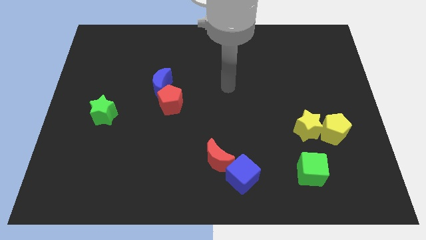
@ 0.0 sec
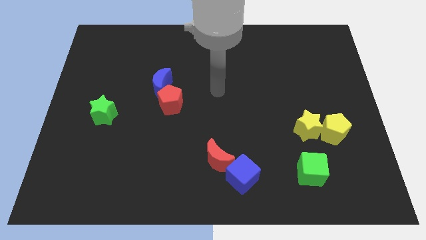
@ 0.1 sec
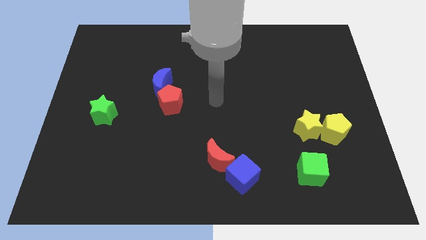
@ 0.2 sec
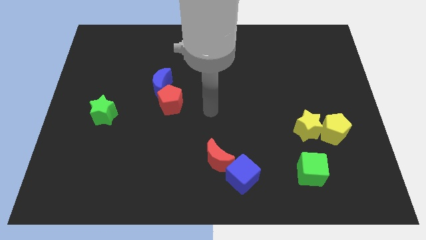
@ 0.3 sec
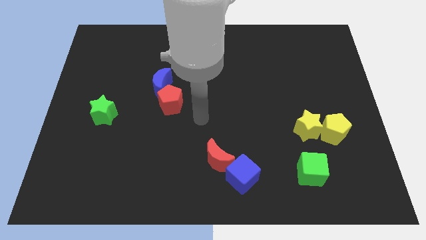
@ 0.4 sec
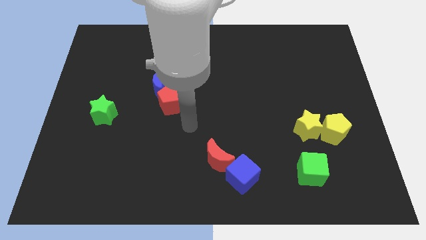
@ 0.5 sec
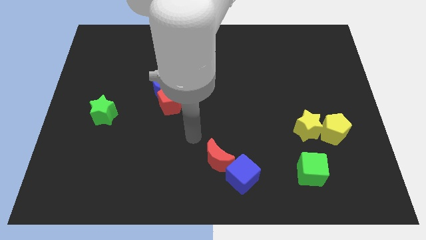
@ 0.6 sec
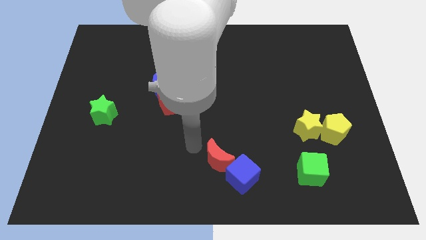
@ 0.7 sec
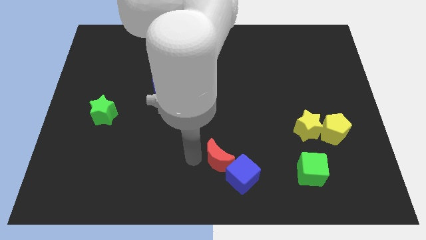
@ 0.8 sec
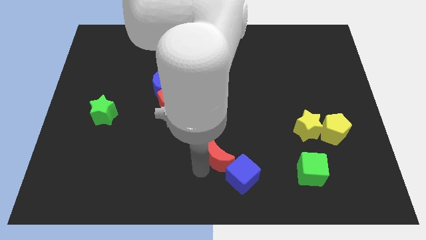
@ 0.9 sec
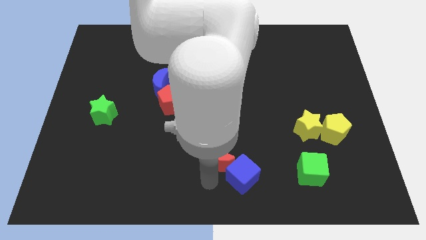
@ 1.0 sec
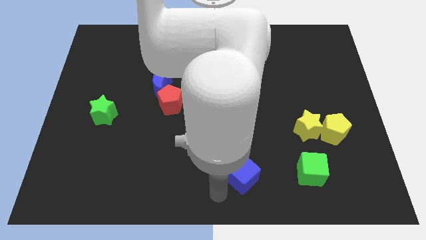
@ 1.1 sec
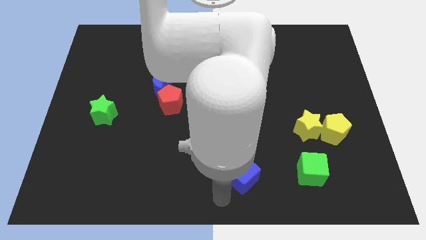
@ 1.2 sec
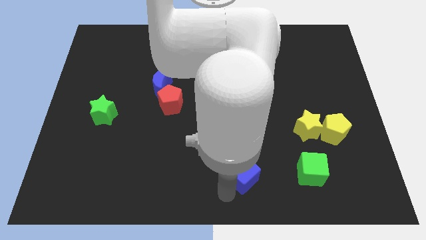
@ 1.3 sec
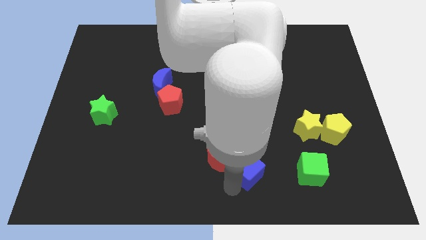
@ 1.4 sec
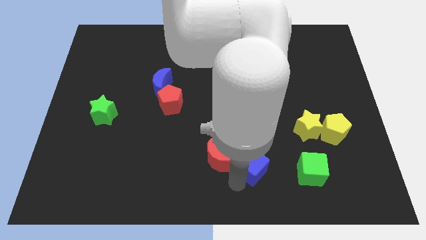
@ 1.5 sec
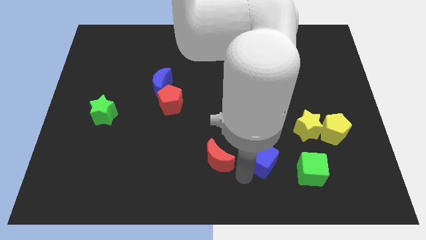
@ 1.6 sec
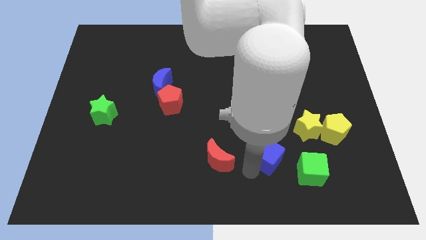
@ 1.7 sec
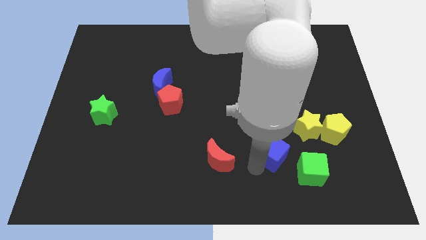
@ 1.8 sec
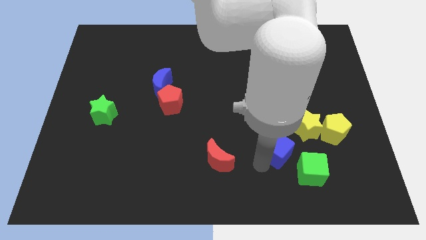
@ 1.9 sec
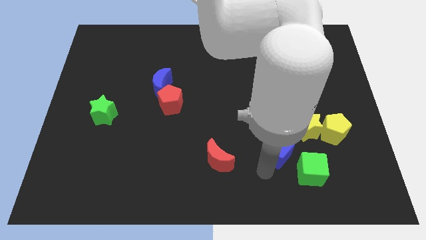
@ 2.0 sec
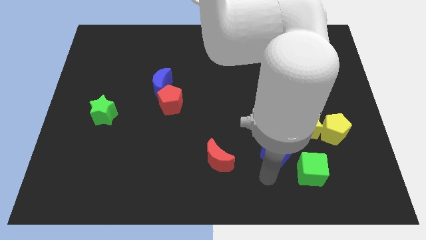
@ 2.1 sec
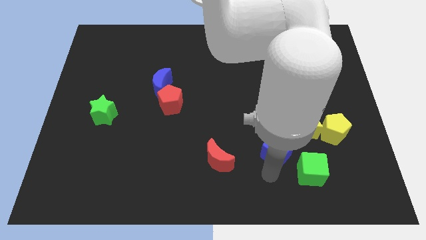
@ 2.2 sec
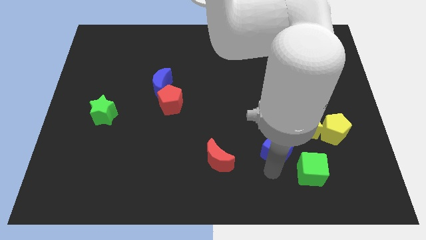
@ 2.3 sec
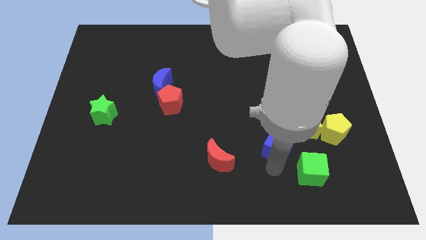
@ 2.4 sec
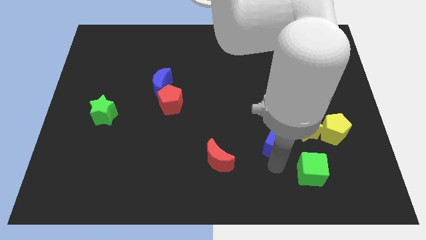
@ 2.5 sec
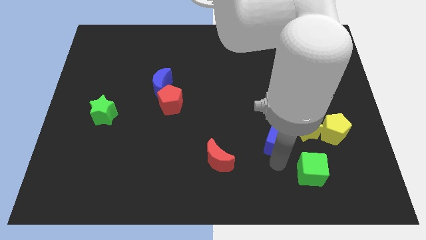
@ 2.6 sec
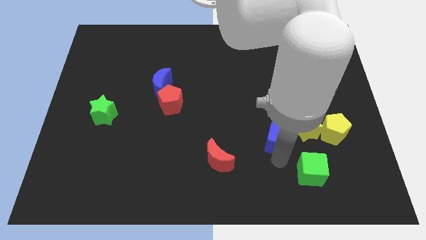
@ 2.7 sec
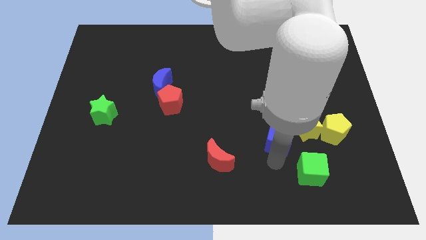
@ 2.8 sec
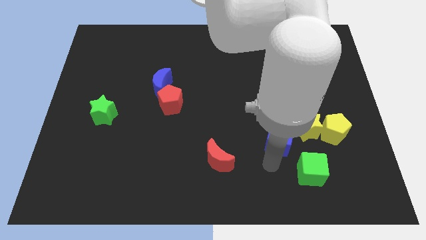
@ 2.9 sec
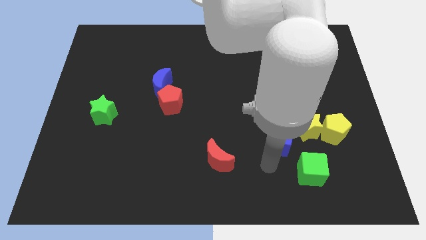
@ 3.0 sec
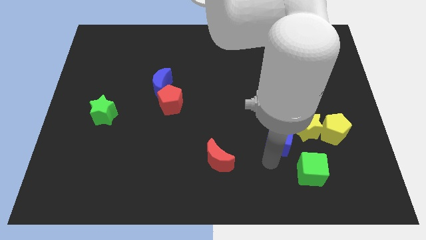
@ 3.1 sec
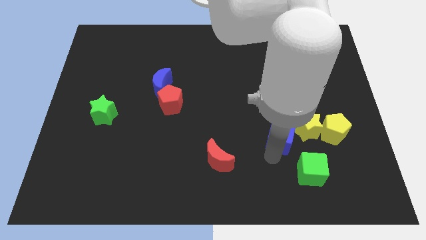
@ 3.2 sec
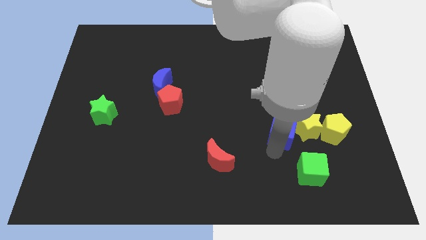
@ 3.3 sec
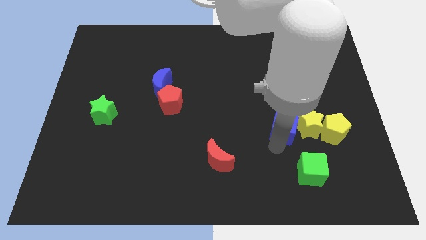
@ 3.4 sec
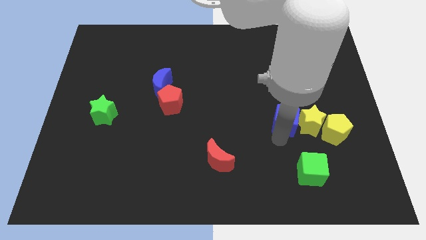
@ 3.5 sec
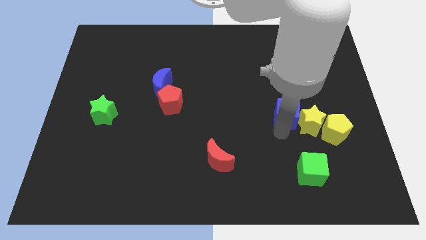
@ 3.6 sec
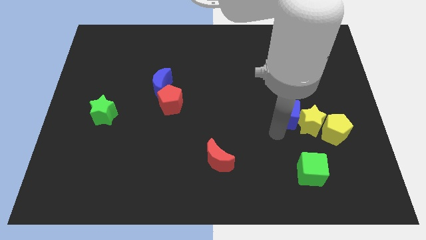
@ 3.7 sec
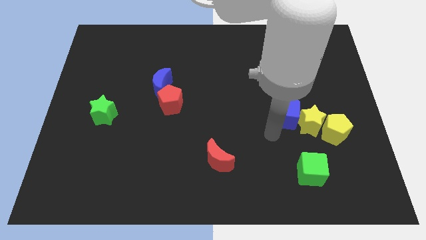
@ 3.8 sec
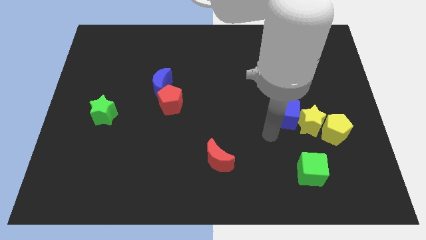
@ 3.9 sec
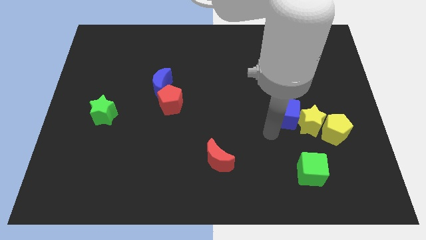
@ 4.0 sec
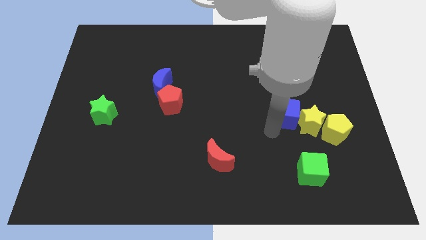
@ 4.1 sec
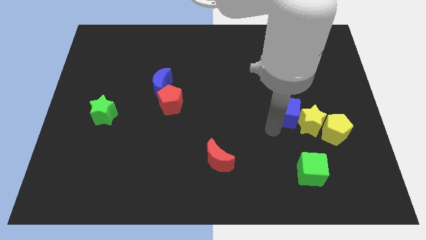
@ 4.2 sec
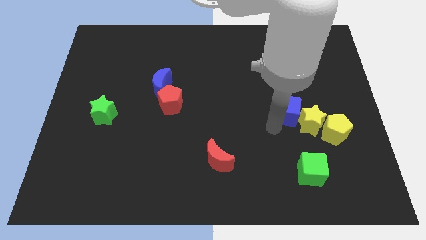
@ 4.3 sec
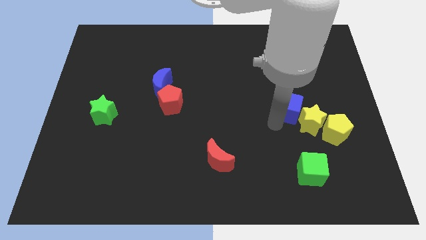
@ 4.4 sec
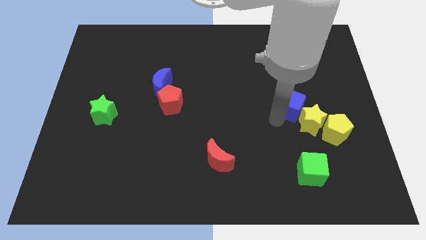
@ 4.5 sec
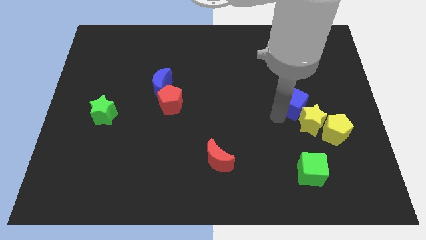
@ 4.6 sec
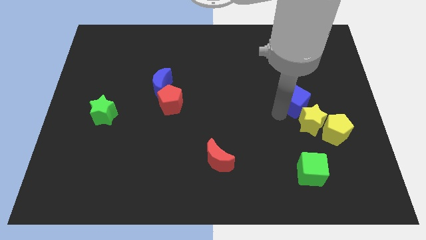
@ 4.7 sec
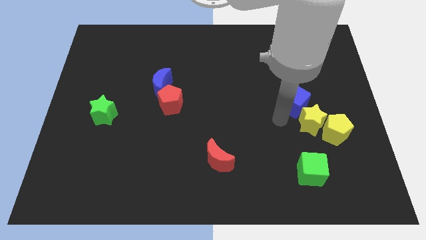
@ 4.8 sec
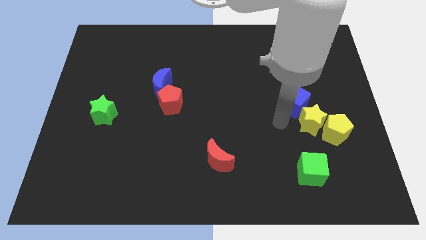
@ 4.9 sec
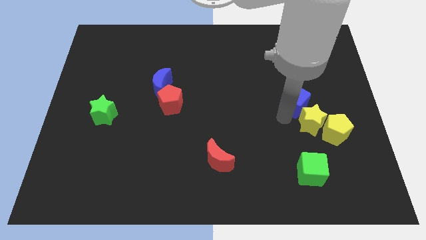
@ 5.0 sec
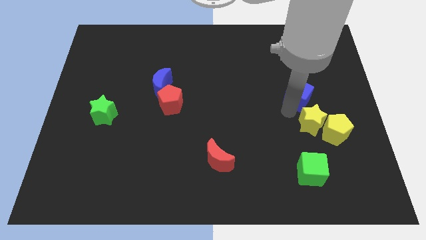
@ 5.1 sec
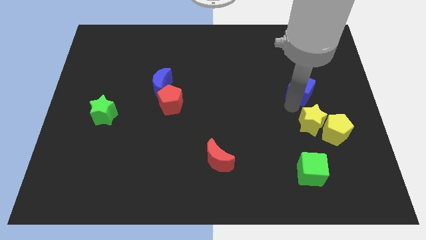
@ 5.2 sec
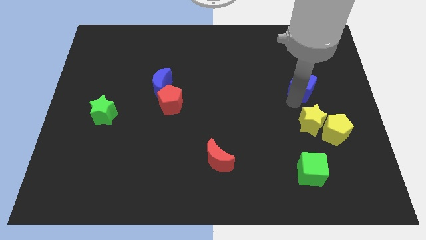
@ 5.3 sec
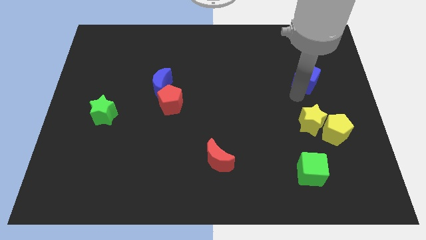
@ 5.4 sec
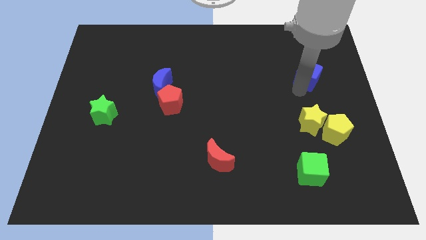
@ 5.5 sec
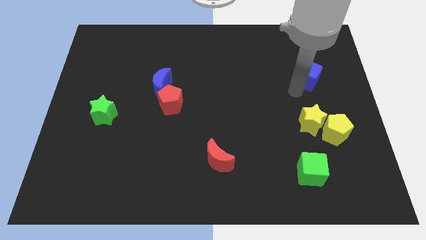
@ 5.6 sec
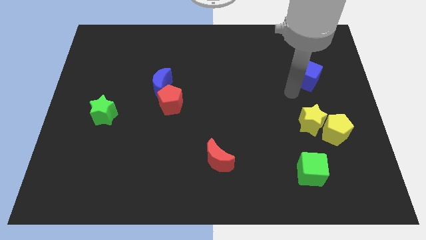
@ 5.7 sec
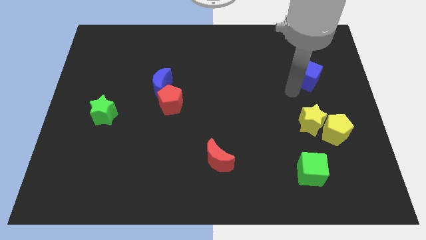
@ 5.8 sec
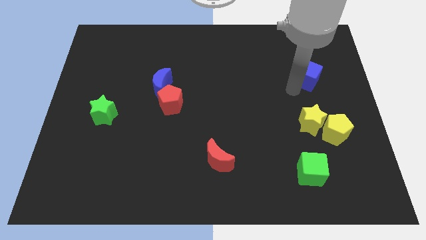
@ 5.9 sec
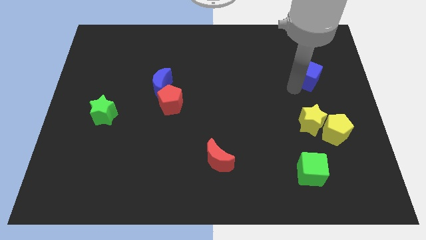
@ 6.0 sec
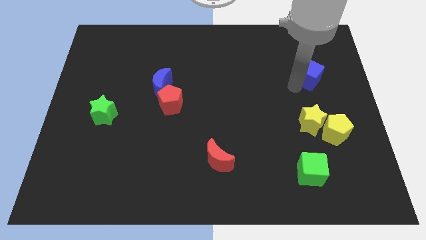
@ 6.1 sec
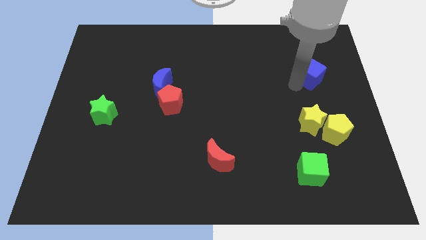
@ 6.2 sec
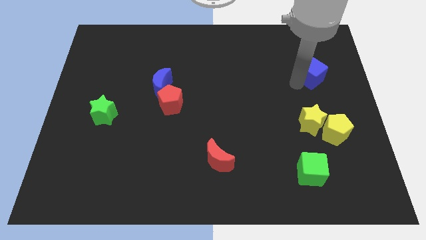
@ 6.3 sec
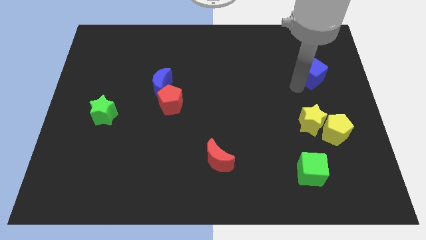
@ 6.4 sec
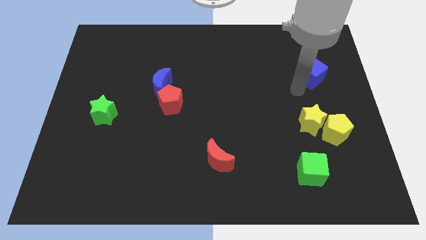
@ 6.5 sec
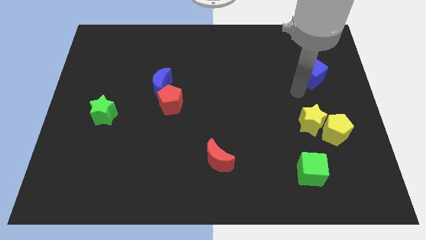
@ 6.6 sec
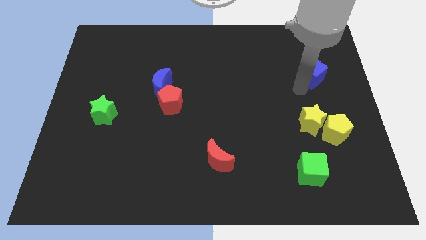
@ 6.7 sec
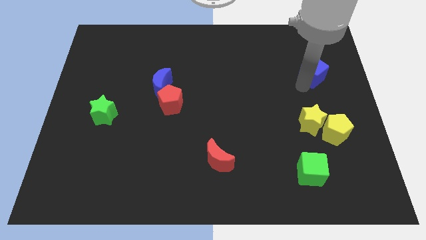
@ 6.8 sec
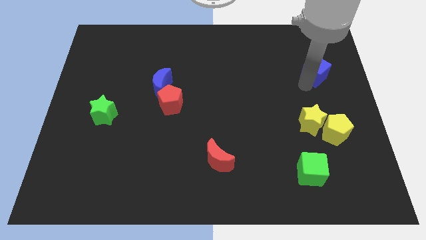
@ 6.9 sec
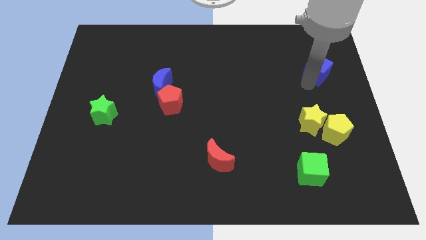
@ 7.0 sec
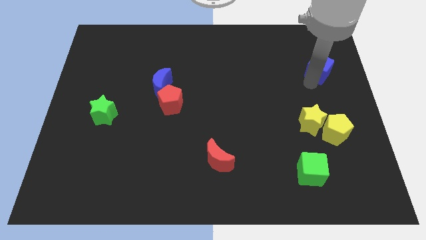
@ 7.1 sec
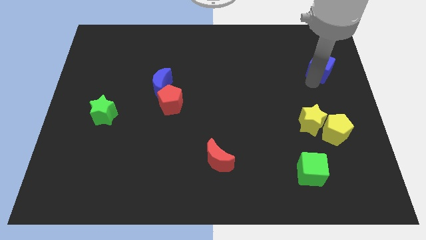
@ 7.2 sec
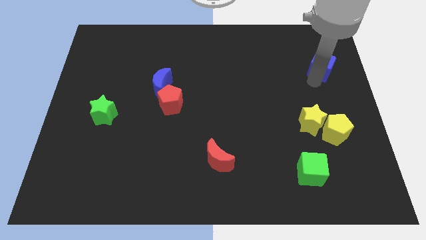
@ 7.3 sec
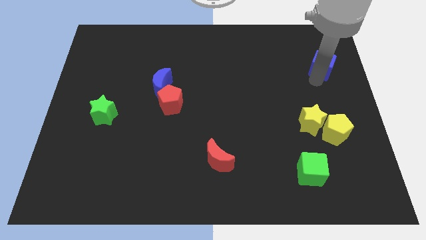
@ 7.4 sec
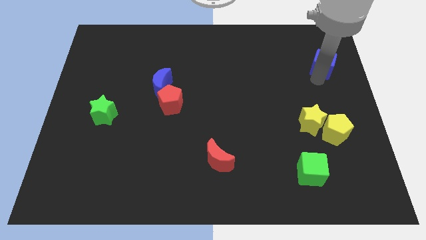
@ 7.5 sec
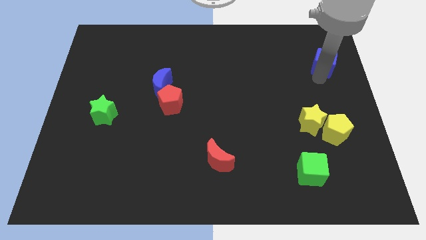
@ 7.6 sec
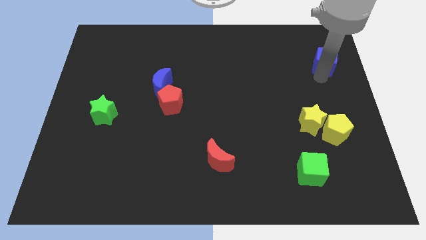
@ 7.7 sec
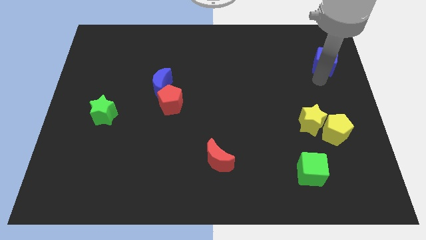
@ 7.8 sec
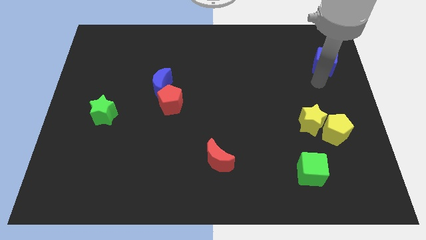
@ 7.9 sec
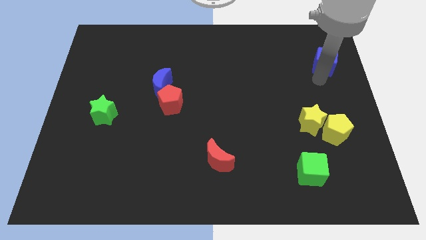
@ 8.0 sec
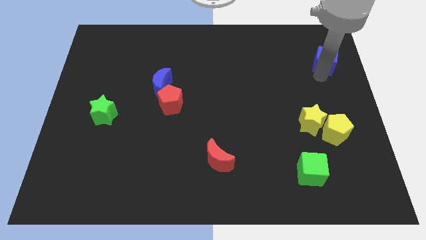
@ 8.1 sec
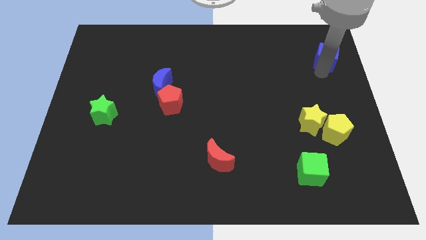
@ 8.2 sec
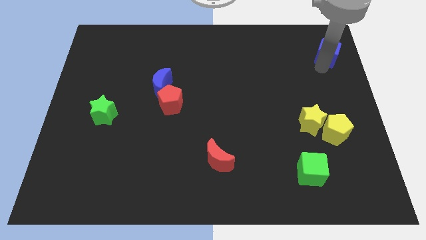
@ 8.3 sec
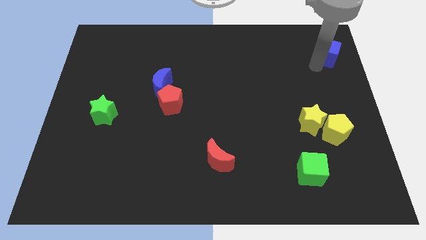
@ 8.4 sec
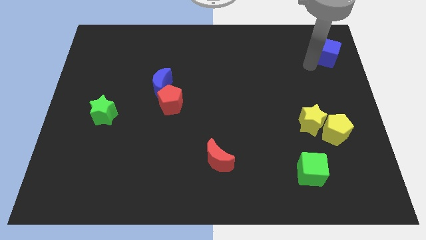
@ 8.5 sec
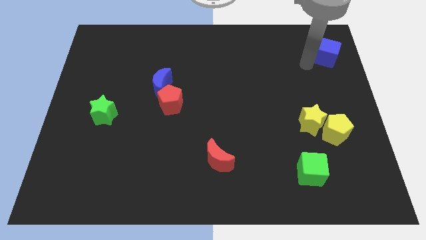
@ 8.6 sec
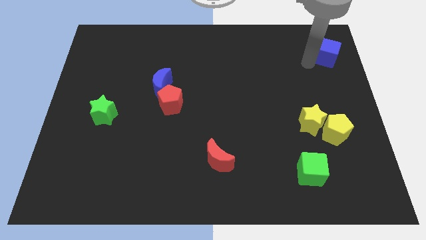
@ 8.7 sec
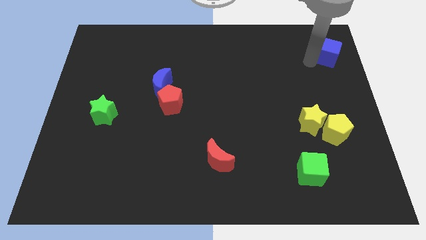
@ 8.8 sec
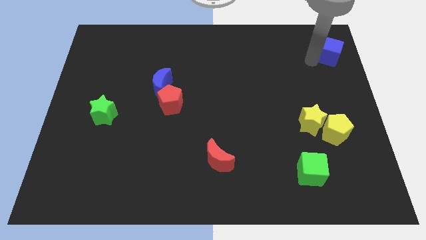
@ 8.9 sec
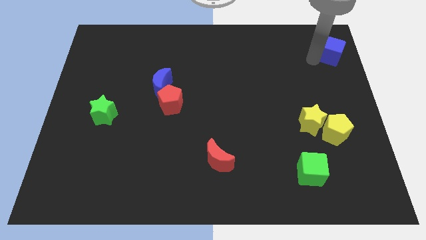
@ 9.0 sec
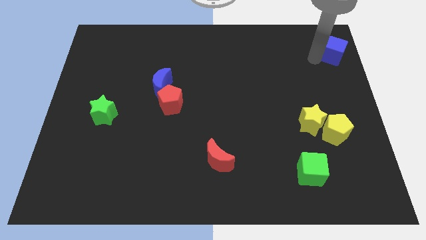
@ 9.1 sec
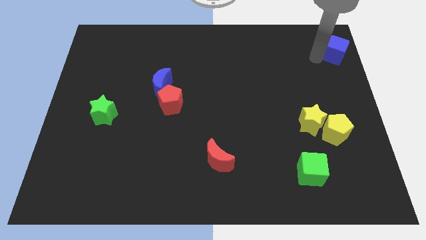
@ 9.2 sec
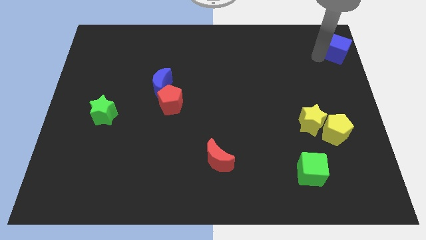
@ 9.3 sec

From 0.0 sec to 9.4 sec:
put the blue cube to the top right
